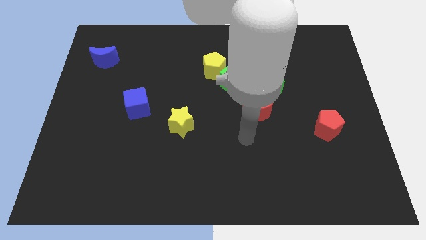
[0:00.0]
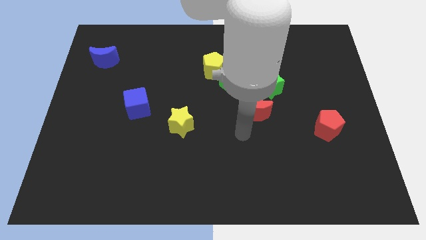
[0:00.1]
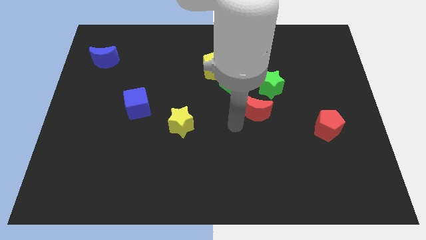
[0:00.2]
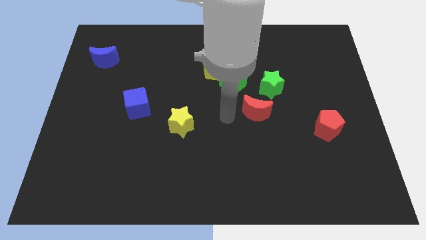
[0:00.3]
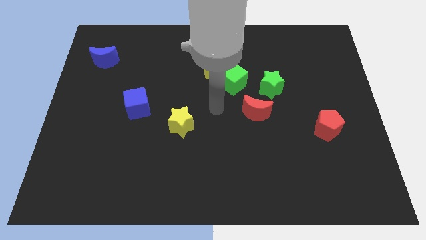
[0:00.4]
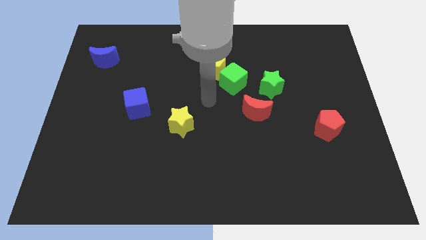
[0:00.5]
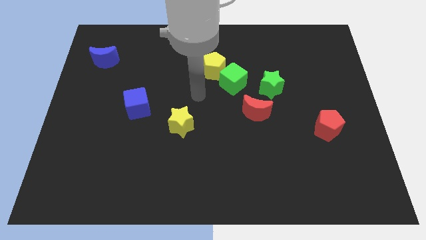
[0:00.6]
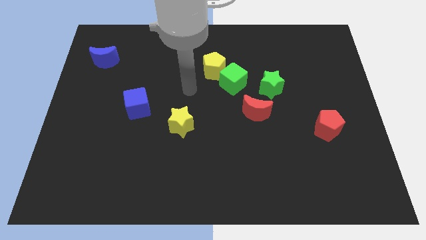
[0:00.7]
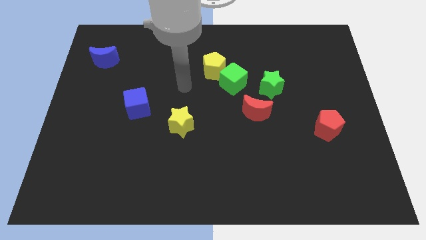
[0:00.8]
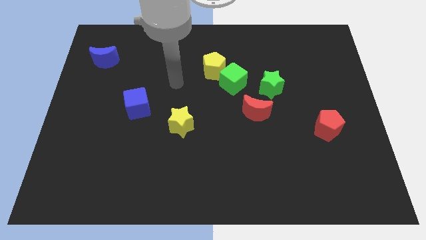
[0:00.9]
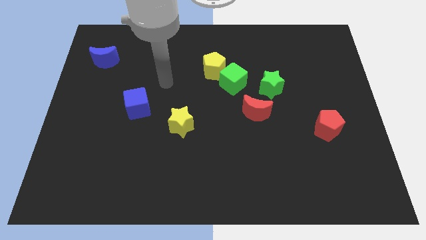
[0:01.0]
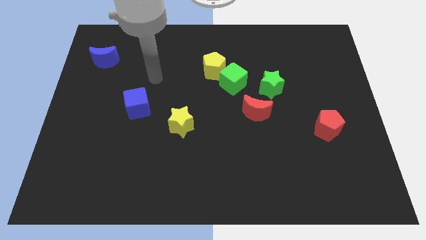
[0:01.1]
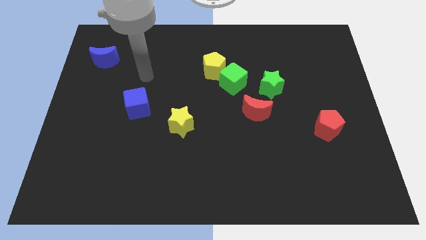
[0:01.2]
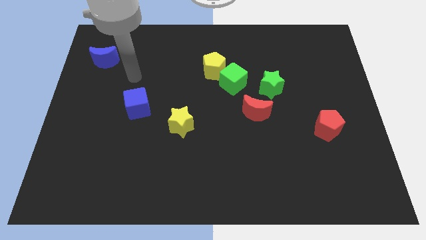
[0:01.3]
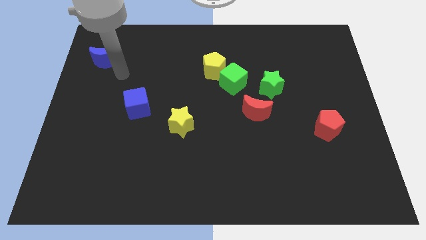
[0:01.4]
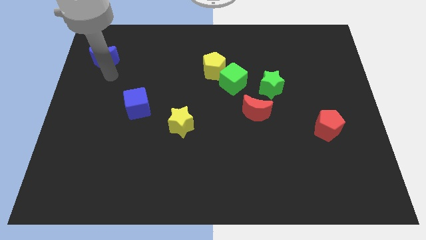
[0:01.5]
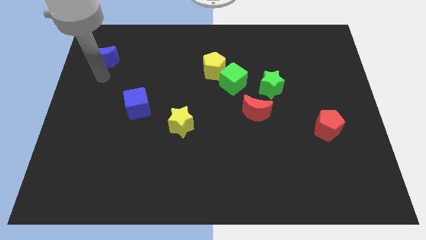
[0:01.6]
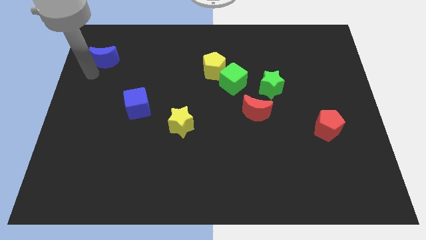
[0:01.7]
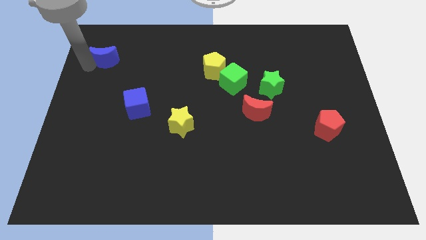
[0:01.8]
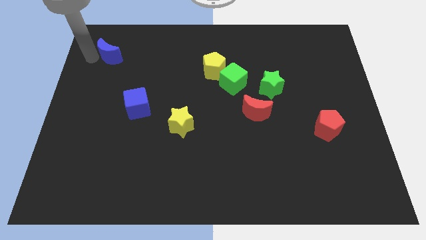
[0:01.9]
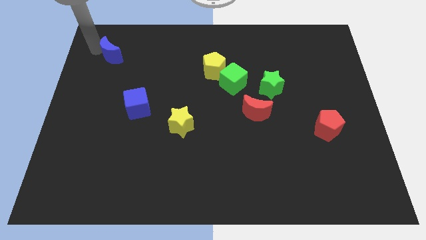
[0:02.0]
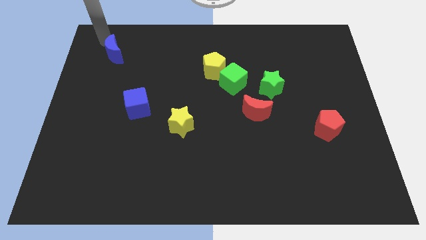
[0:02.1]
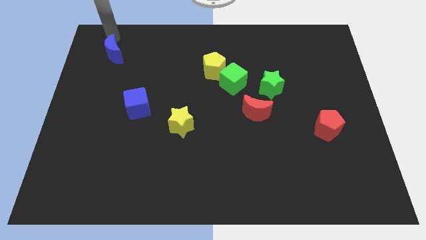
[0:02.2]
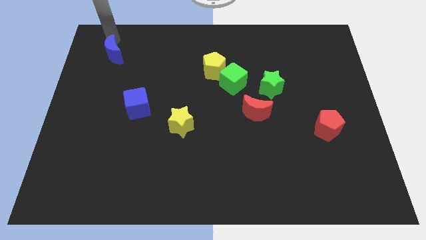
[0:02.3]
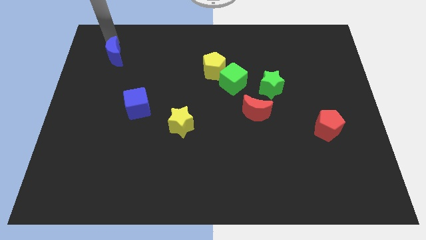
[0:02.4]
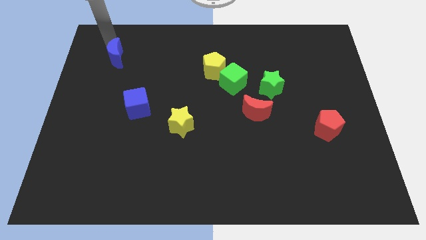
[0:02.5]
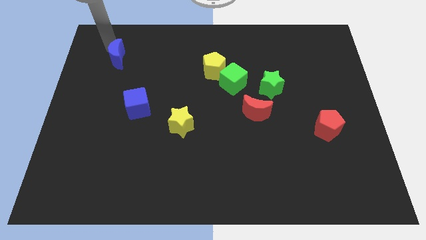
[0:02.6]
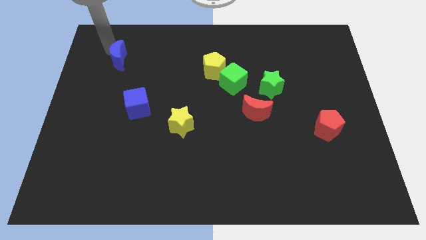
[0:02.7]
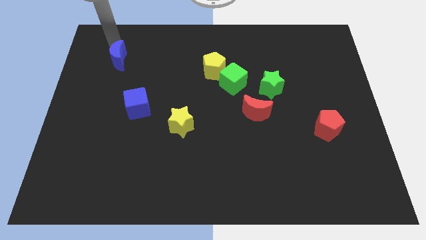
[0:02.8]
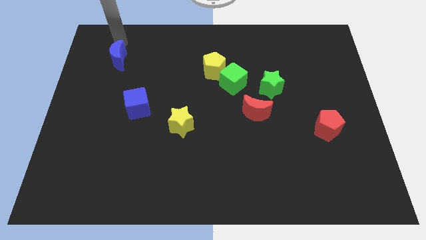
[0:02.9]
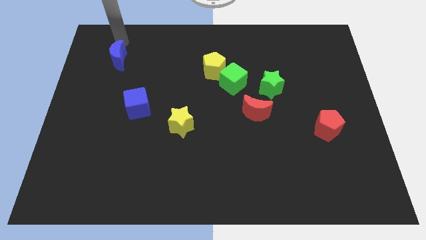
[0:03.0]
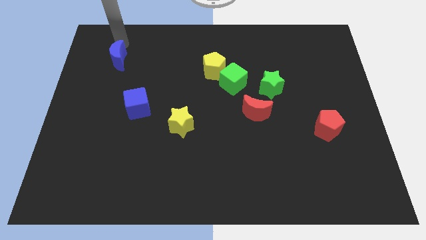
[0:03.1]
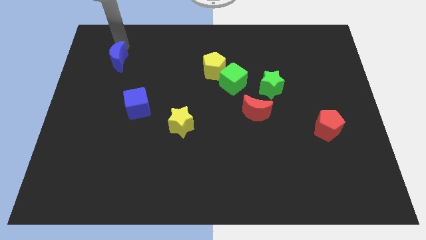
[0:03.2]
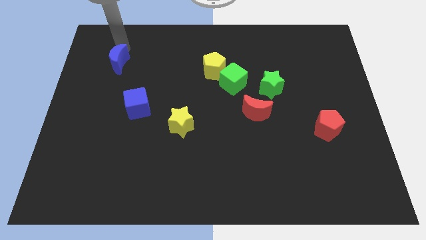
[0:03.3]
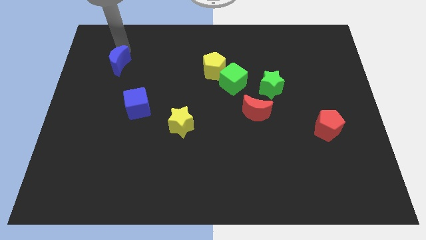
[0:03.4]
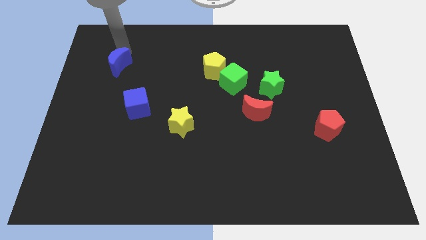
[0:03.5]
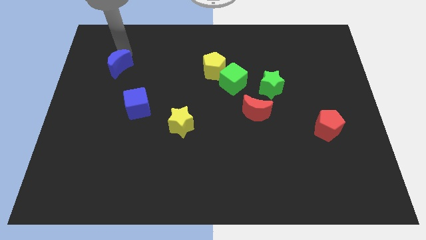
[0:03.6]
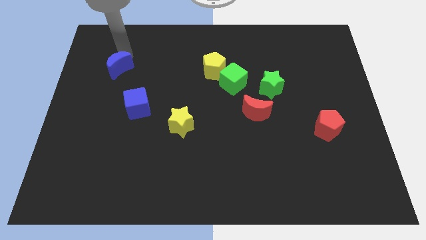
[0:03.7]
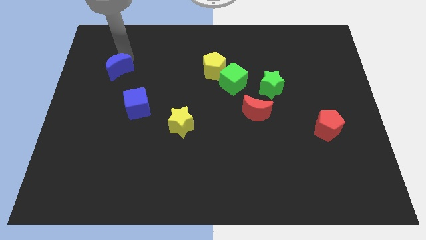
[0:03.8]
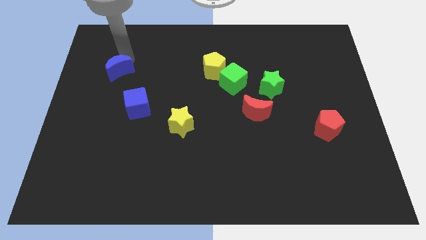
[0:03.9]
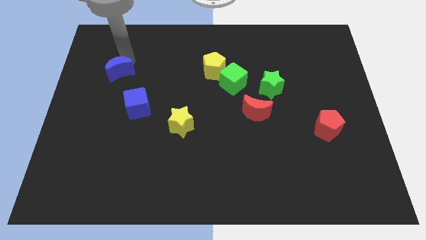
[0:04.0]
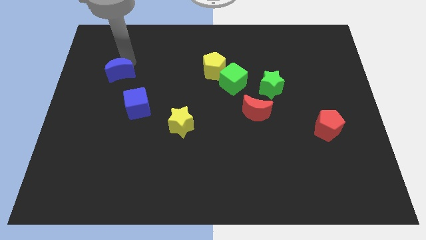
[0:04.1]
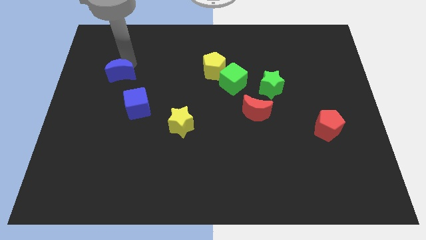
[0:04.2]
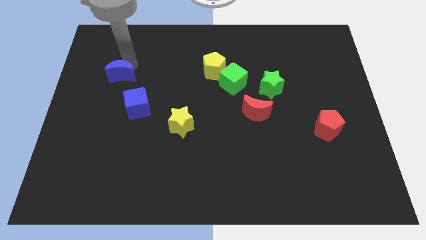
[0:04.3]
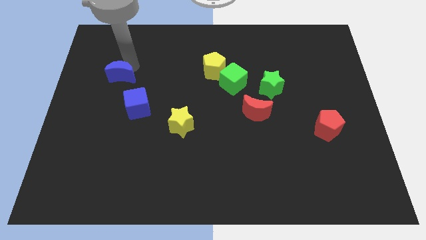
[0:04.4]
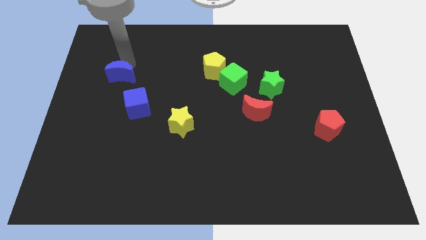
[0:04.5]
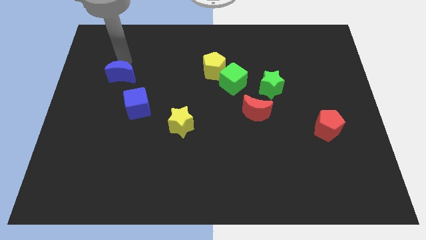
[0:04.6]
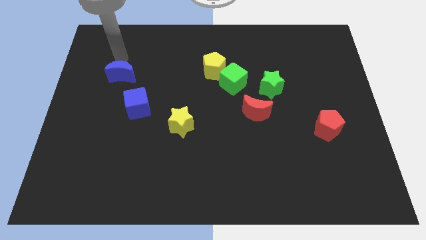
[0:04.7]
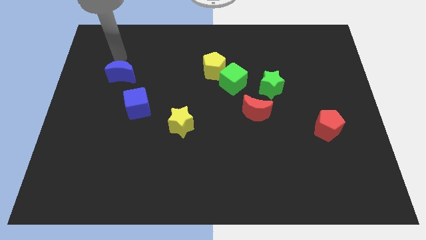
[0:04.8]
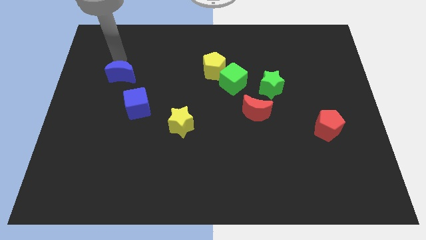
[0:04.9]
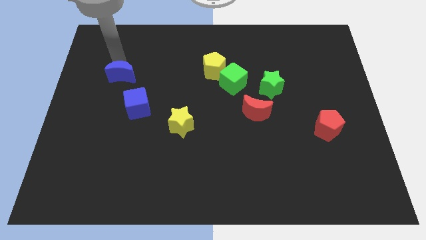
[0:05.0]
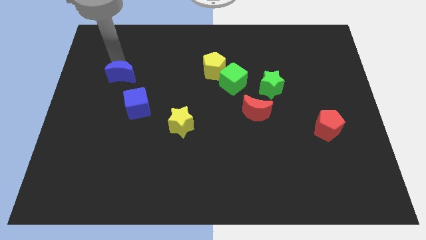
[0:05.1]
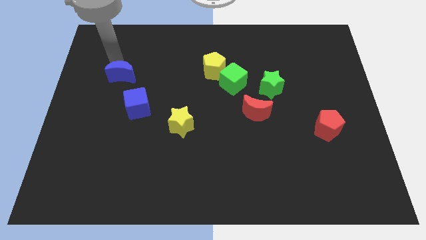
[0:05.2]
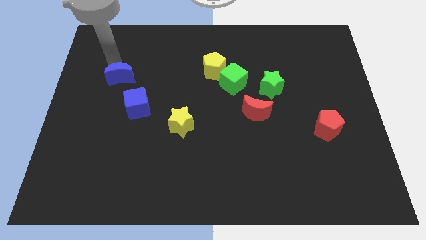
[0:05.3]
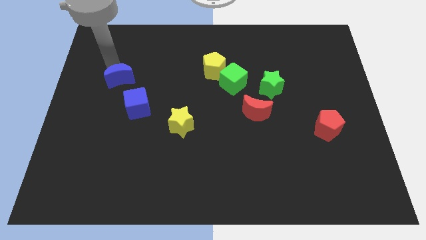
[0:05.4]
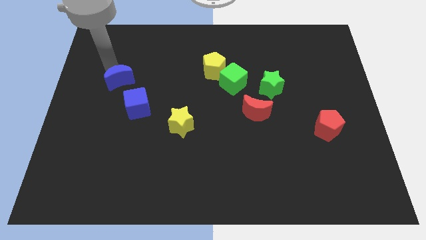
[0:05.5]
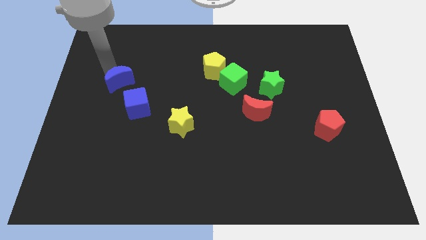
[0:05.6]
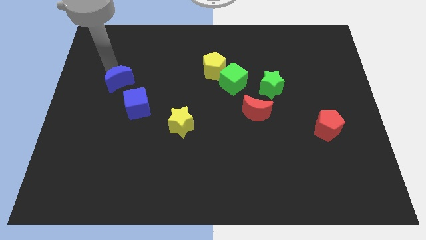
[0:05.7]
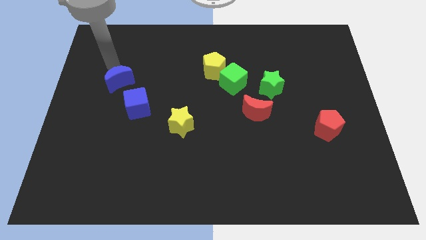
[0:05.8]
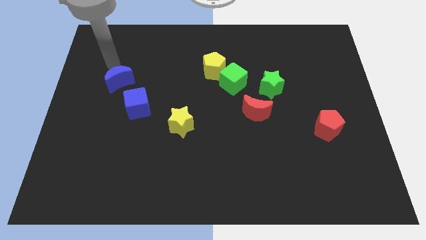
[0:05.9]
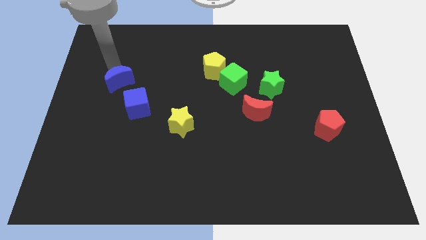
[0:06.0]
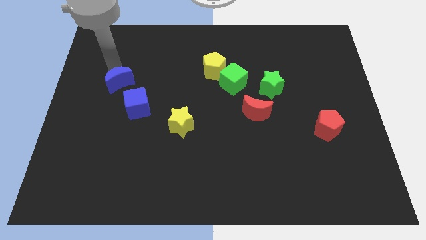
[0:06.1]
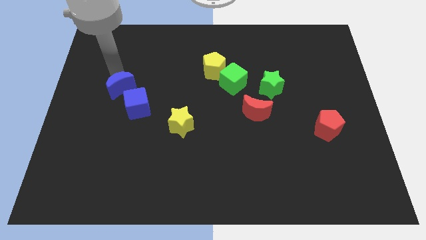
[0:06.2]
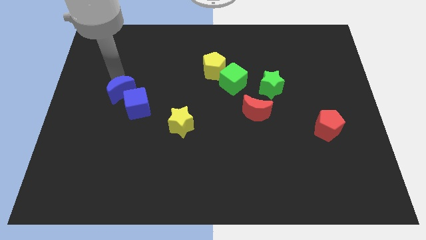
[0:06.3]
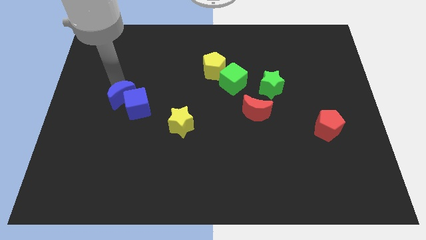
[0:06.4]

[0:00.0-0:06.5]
slide the blue moon next to the blue cube

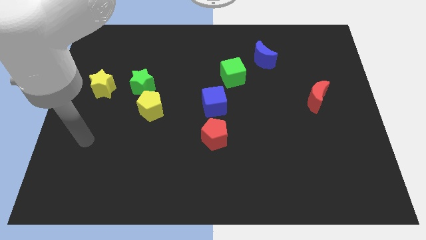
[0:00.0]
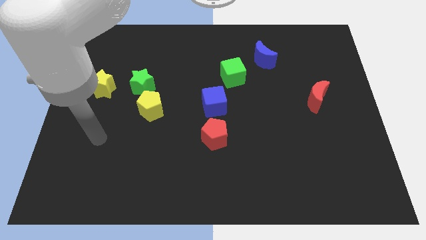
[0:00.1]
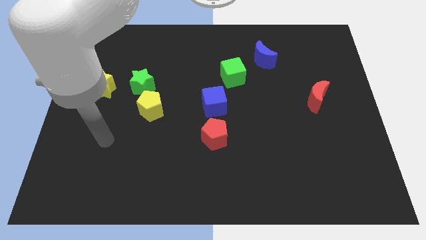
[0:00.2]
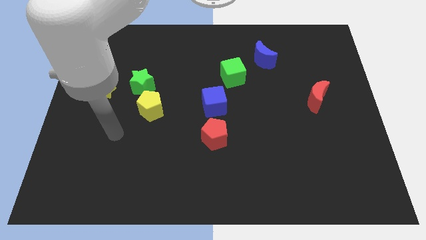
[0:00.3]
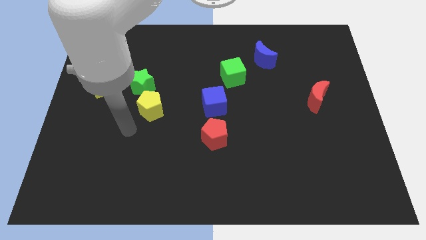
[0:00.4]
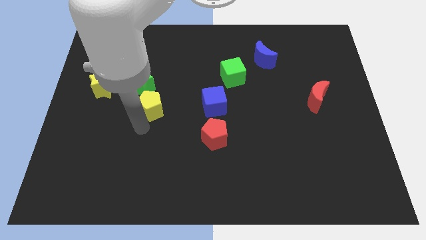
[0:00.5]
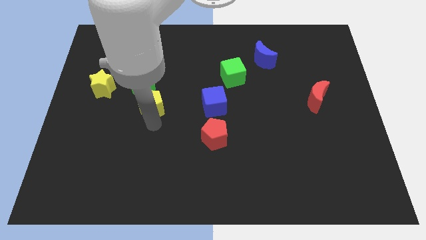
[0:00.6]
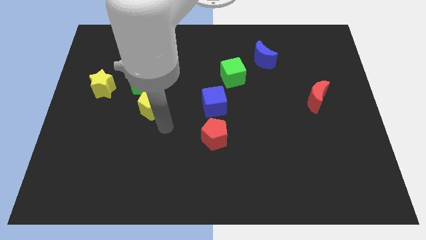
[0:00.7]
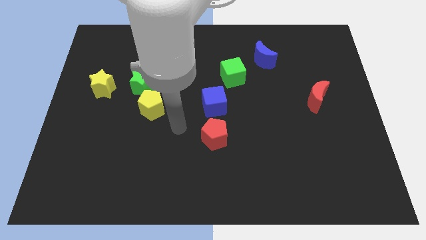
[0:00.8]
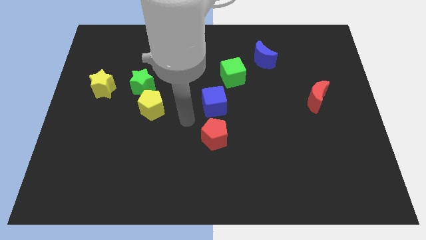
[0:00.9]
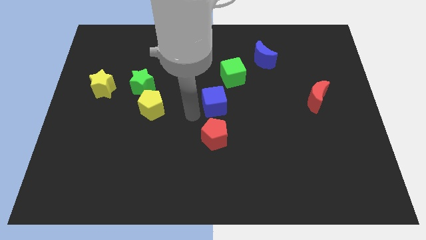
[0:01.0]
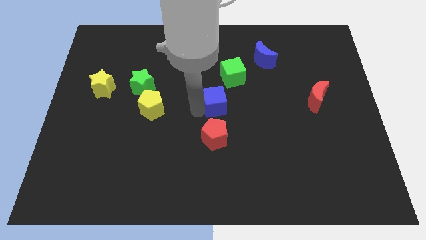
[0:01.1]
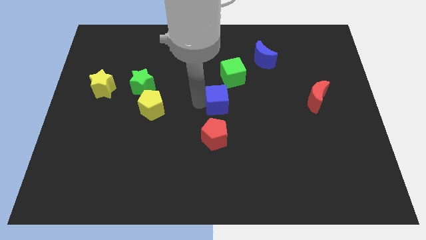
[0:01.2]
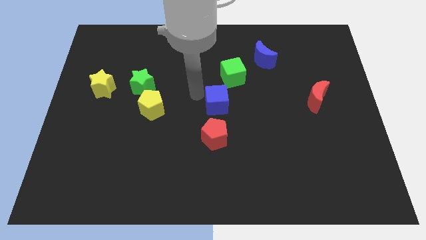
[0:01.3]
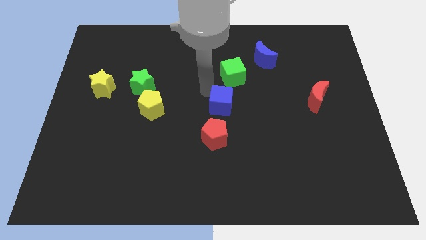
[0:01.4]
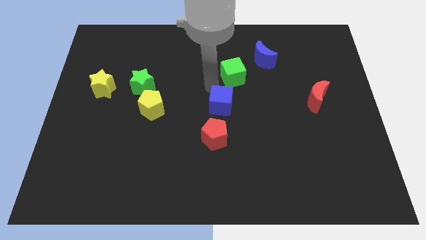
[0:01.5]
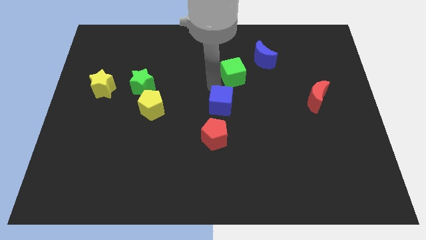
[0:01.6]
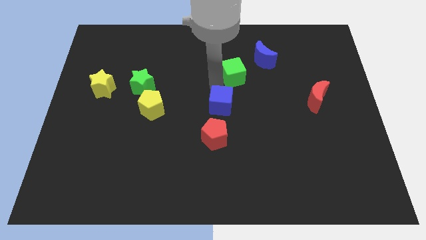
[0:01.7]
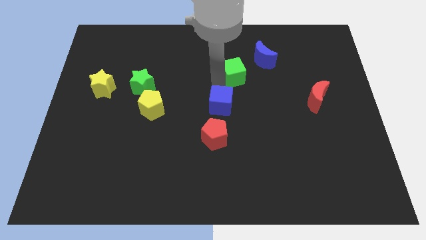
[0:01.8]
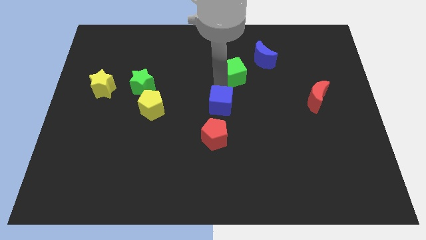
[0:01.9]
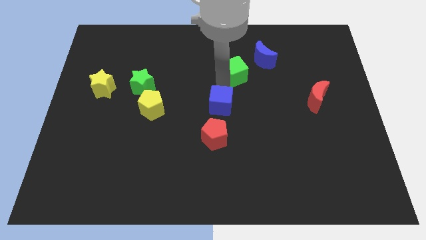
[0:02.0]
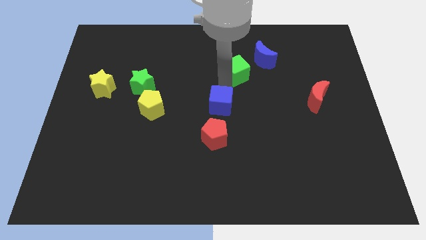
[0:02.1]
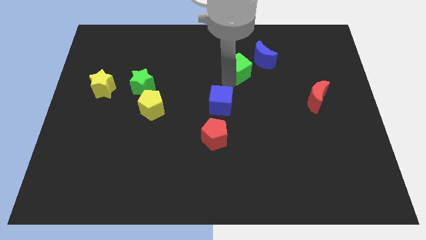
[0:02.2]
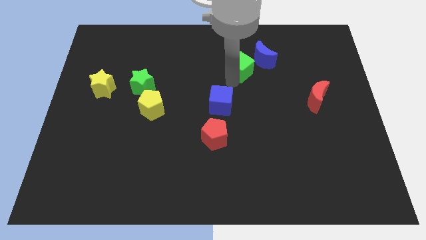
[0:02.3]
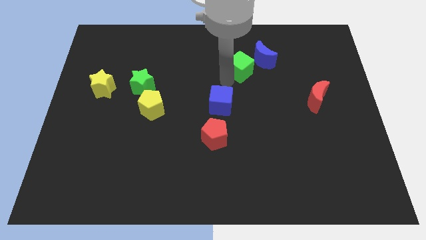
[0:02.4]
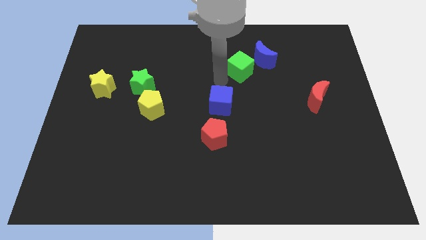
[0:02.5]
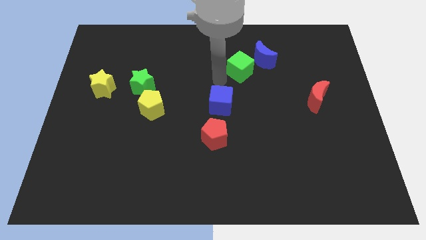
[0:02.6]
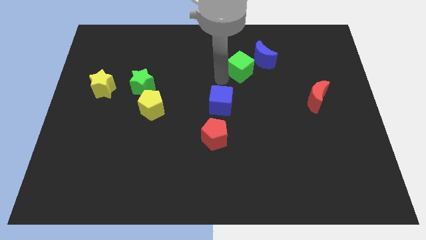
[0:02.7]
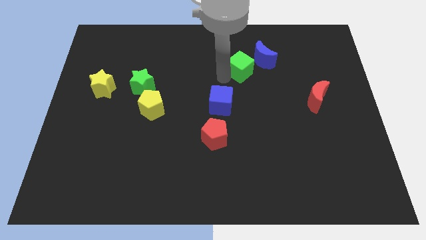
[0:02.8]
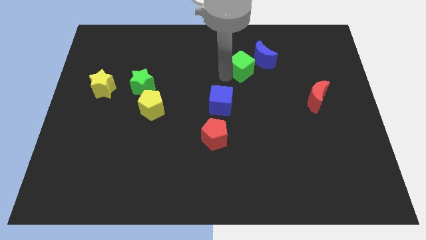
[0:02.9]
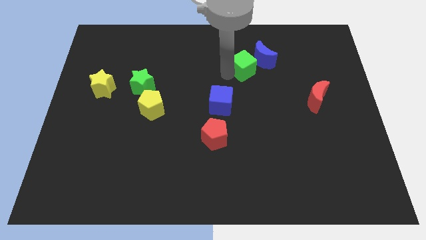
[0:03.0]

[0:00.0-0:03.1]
move the green cube next to the blue moon
